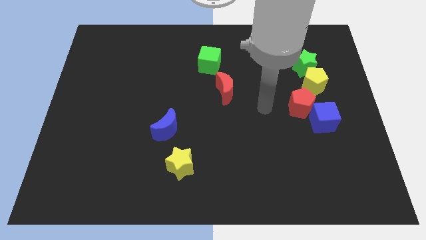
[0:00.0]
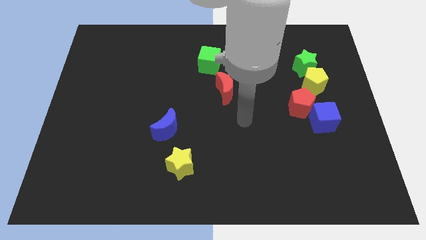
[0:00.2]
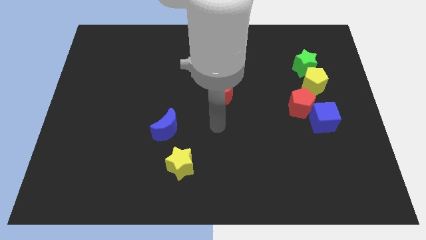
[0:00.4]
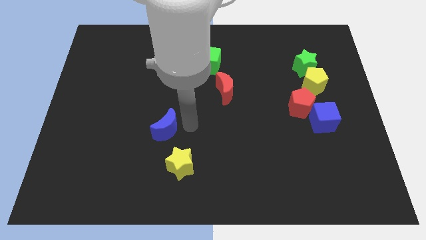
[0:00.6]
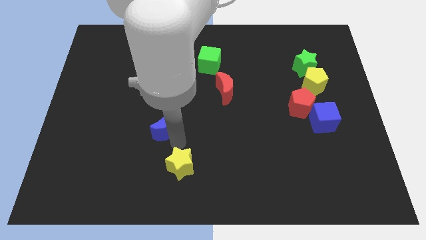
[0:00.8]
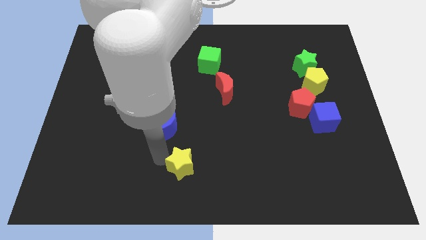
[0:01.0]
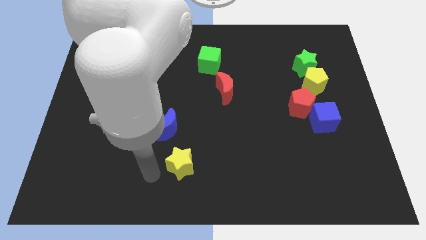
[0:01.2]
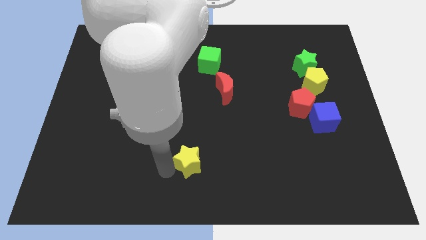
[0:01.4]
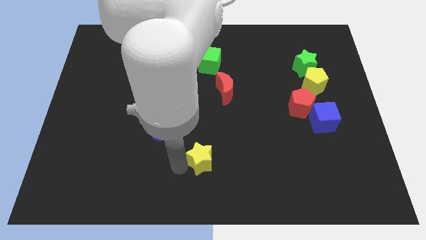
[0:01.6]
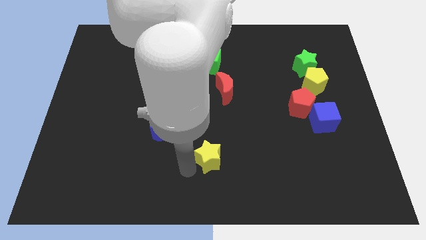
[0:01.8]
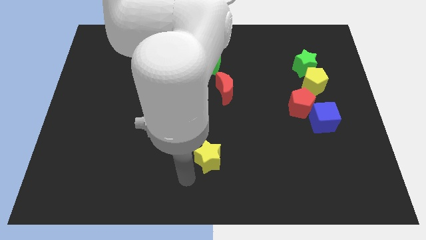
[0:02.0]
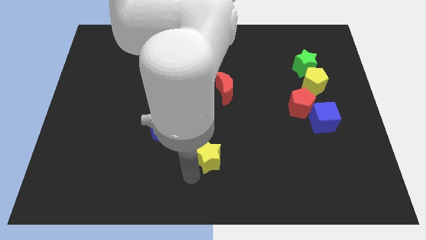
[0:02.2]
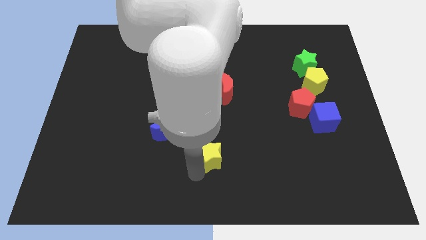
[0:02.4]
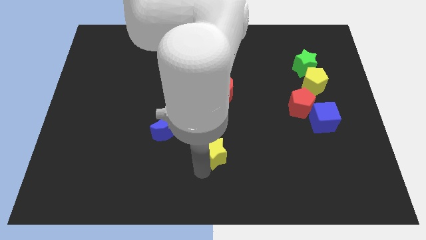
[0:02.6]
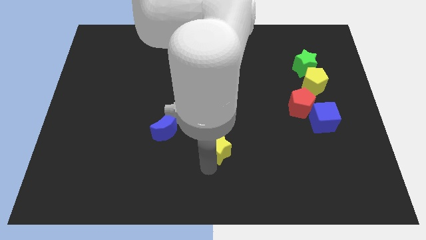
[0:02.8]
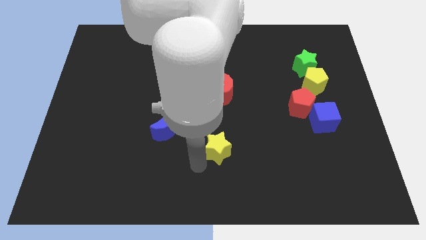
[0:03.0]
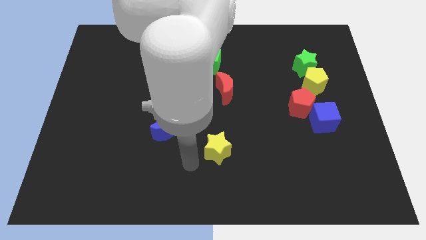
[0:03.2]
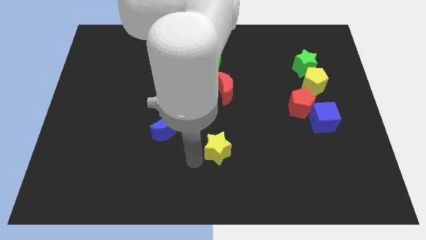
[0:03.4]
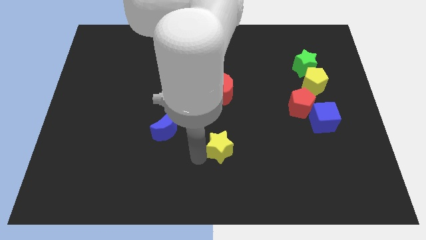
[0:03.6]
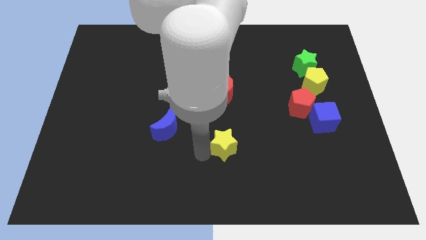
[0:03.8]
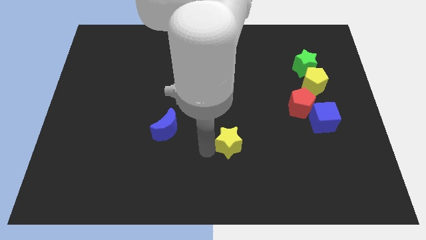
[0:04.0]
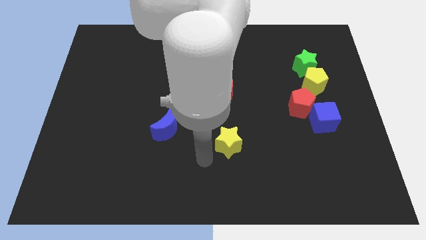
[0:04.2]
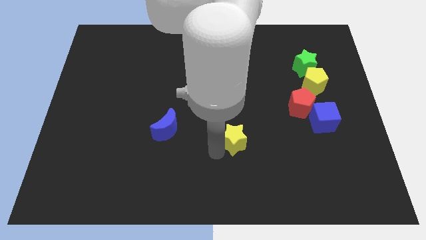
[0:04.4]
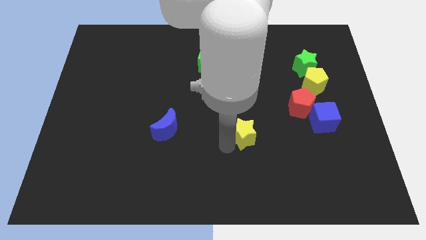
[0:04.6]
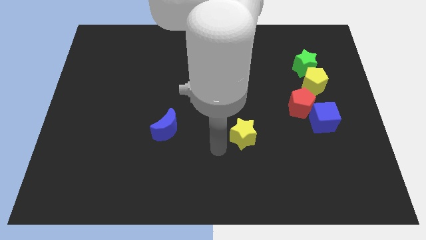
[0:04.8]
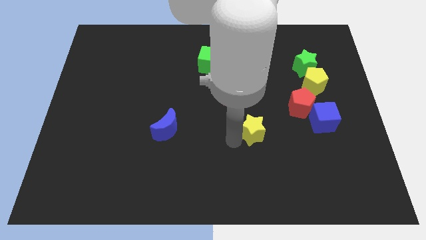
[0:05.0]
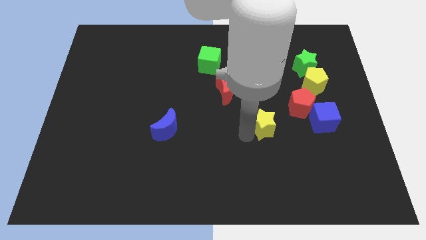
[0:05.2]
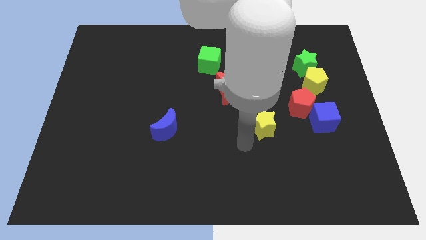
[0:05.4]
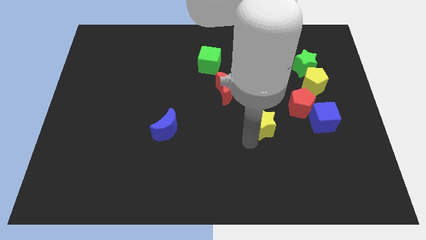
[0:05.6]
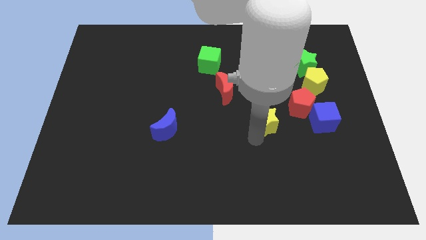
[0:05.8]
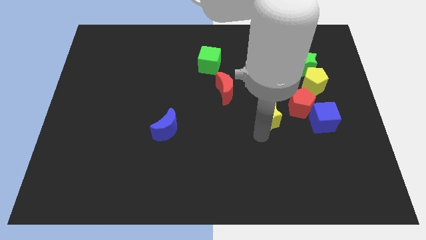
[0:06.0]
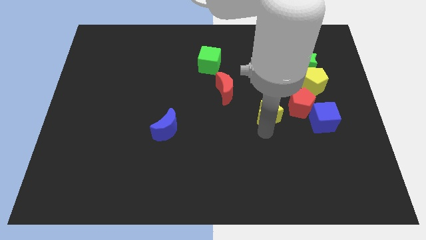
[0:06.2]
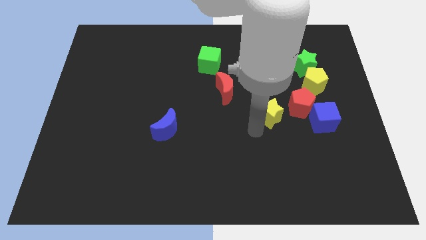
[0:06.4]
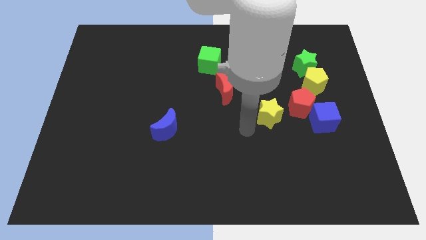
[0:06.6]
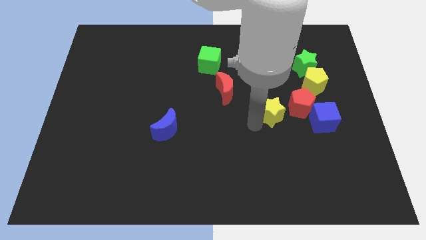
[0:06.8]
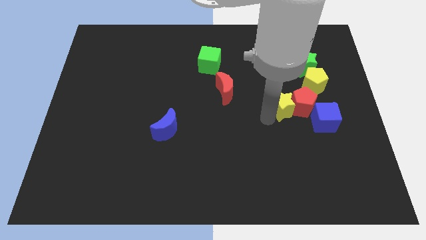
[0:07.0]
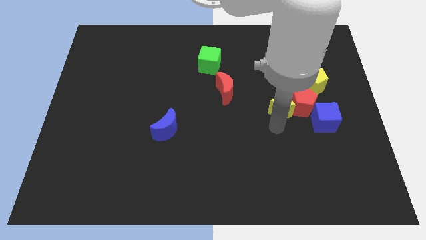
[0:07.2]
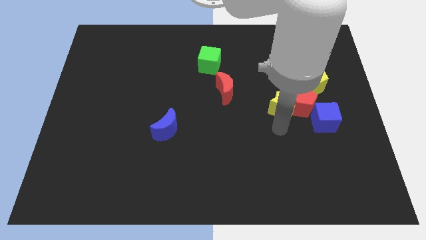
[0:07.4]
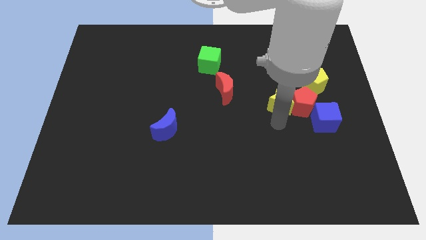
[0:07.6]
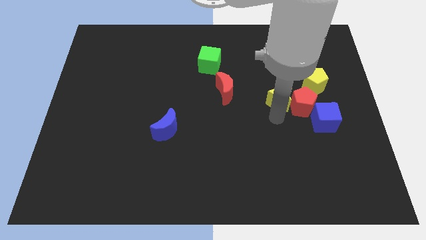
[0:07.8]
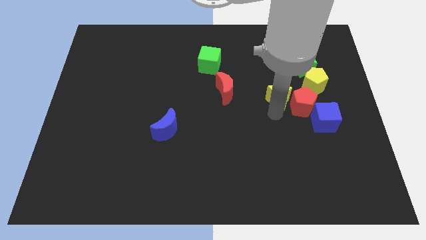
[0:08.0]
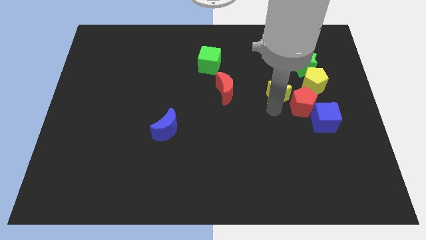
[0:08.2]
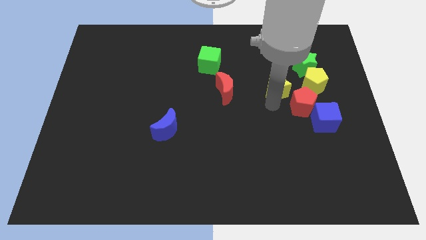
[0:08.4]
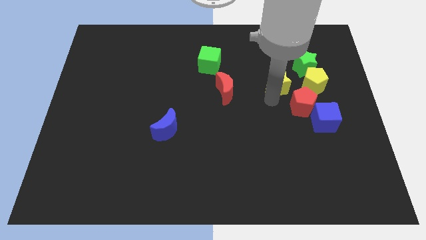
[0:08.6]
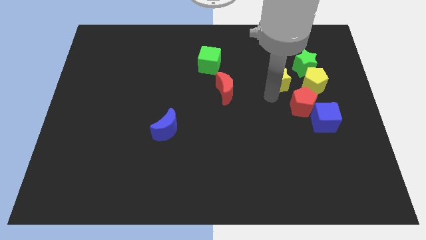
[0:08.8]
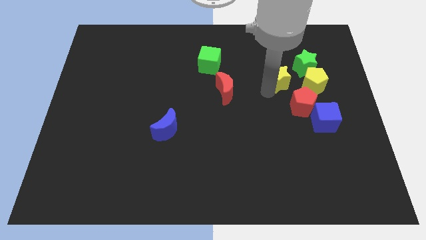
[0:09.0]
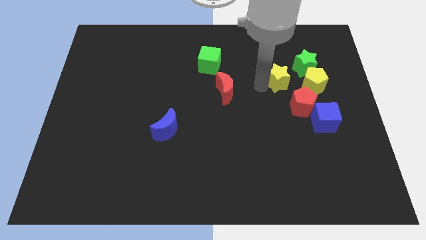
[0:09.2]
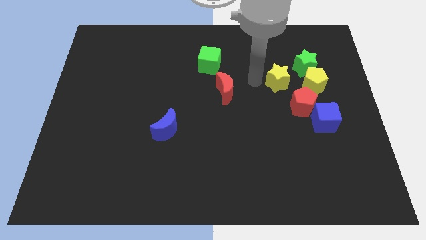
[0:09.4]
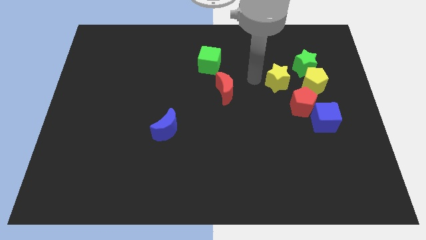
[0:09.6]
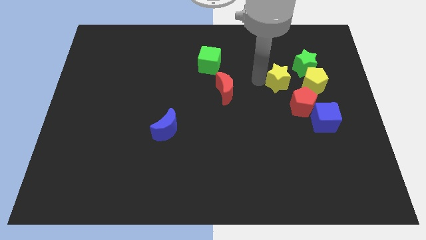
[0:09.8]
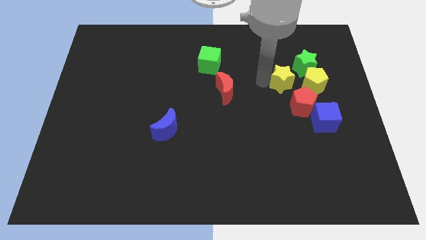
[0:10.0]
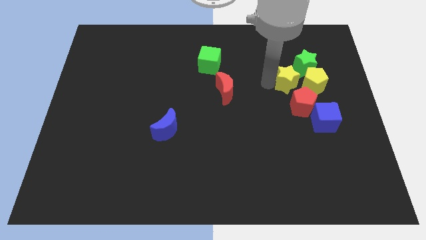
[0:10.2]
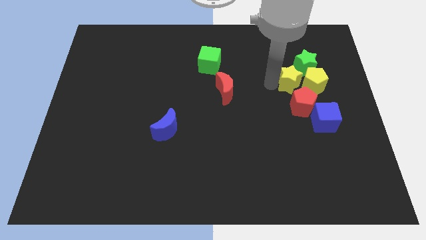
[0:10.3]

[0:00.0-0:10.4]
move the yellow star to the yellow pentagon

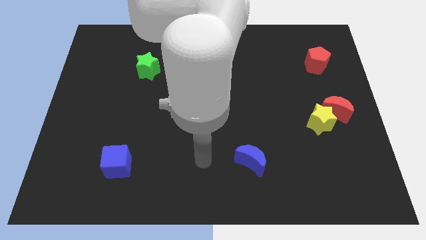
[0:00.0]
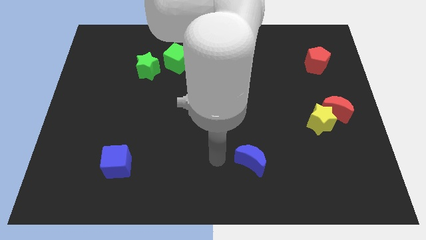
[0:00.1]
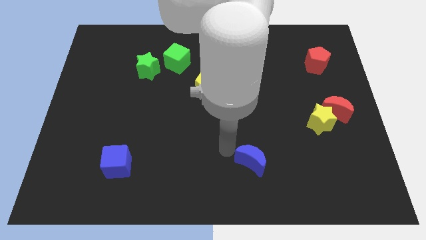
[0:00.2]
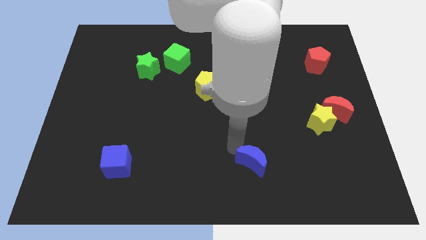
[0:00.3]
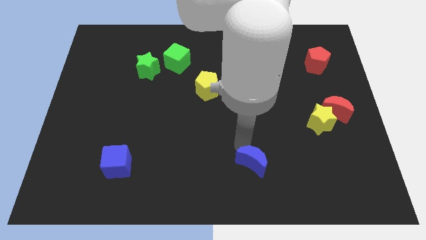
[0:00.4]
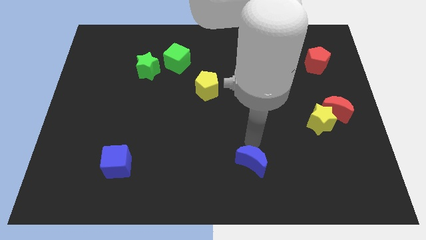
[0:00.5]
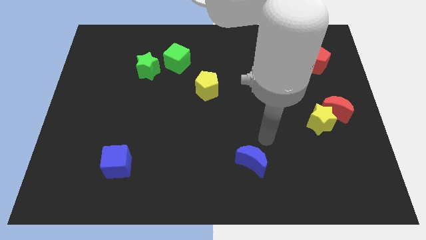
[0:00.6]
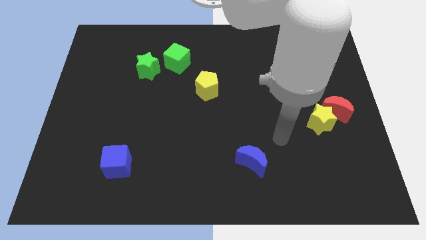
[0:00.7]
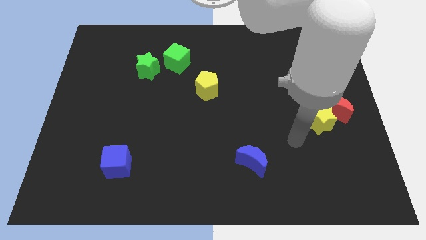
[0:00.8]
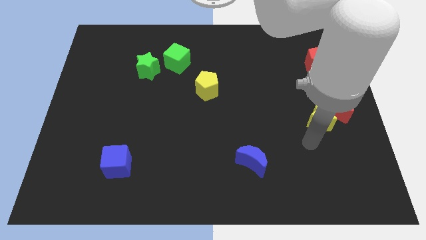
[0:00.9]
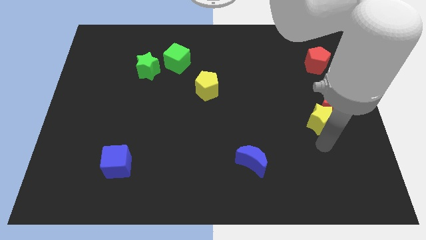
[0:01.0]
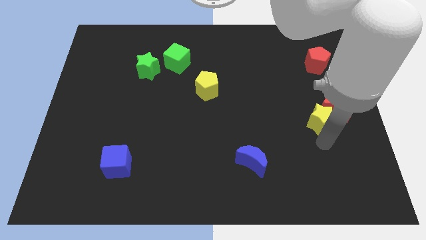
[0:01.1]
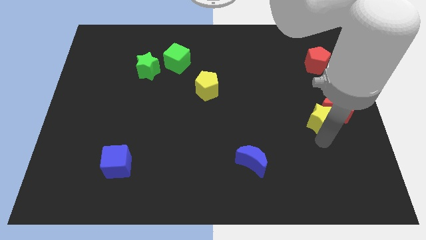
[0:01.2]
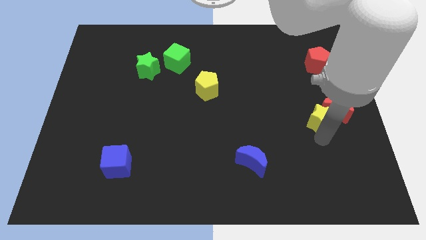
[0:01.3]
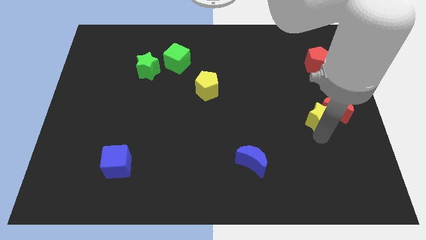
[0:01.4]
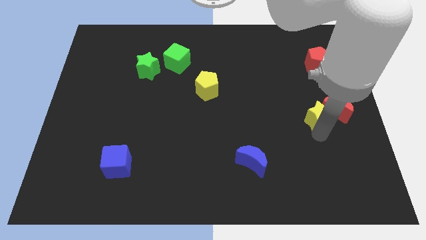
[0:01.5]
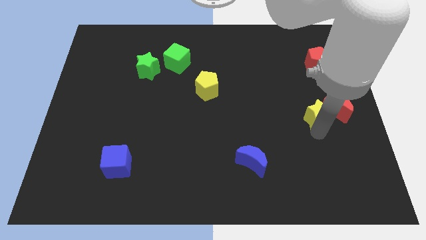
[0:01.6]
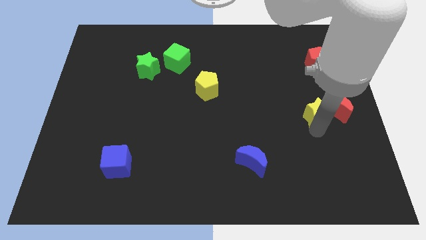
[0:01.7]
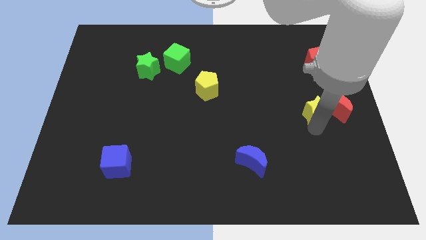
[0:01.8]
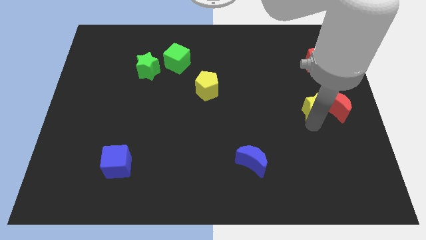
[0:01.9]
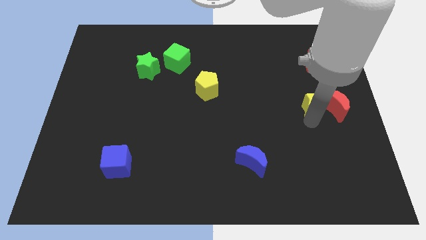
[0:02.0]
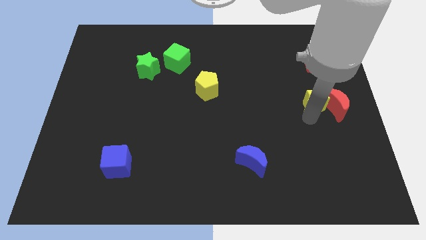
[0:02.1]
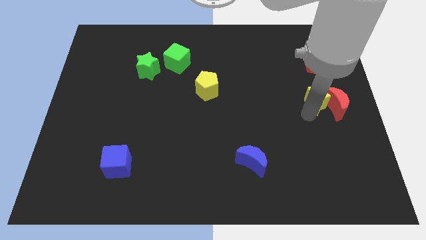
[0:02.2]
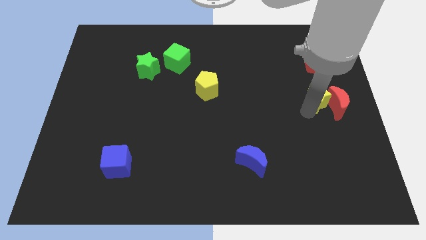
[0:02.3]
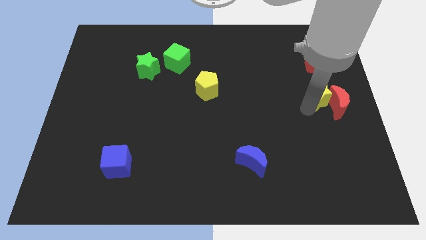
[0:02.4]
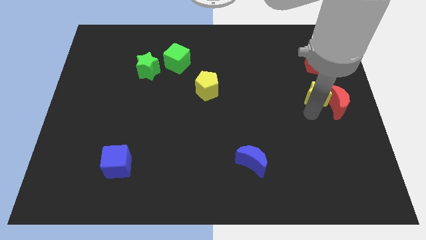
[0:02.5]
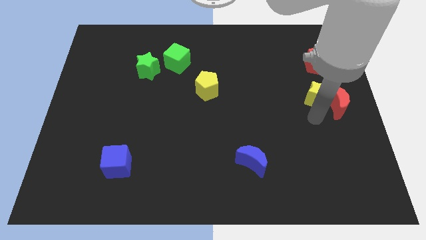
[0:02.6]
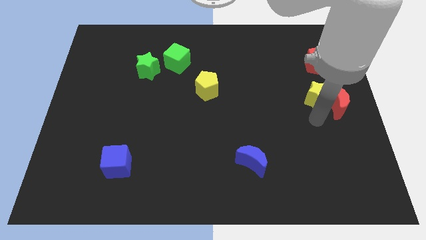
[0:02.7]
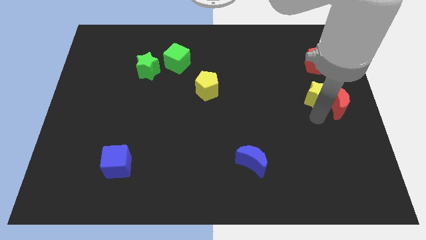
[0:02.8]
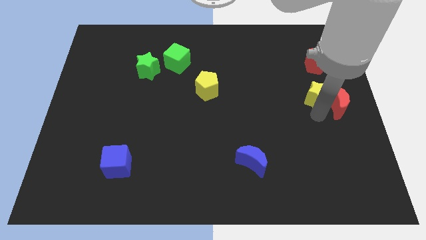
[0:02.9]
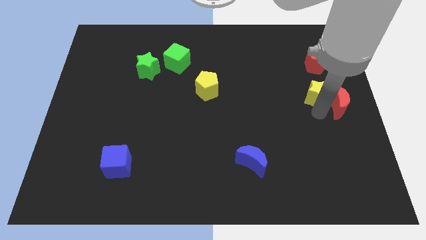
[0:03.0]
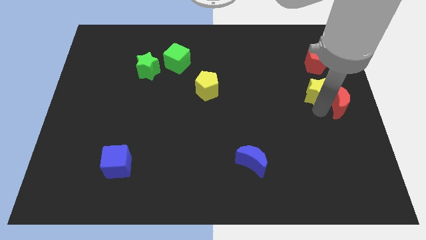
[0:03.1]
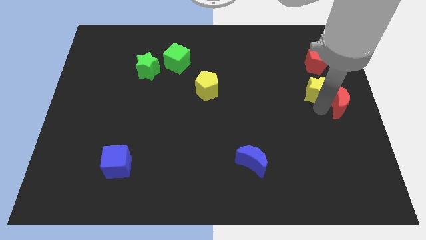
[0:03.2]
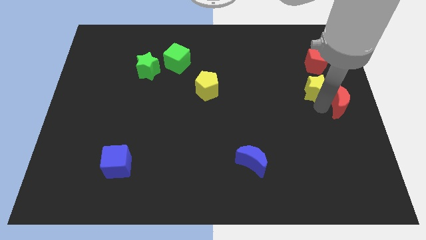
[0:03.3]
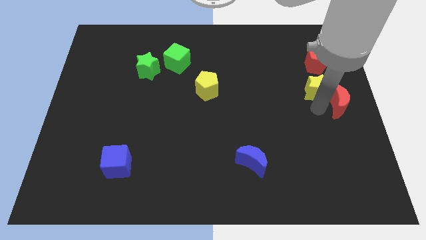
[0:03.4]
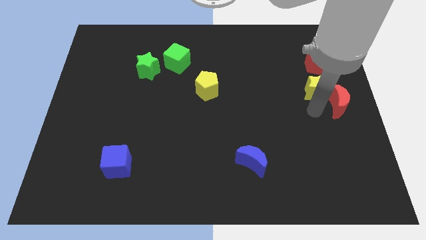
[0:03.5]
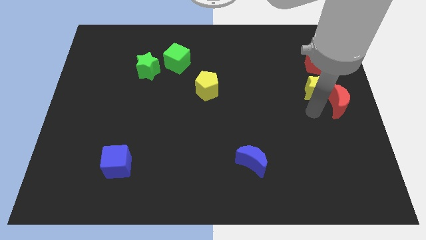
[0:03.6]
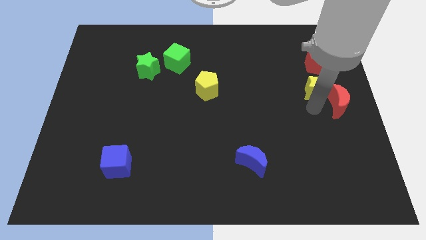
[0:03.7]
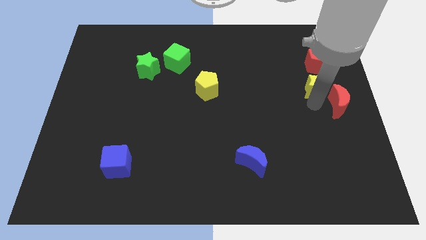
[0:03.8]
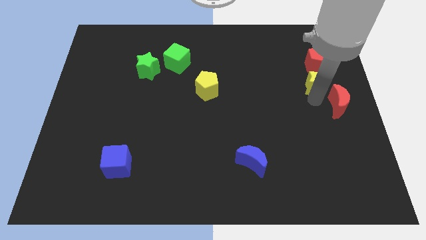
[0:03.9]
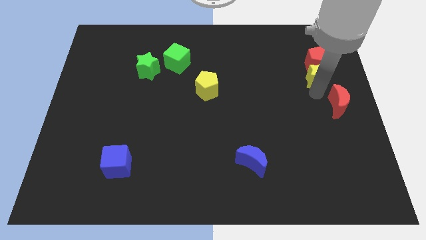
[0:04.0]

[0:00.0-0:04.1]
slide the yellow star next to the red pentagon
